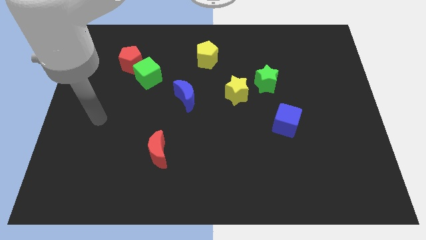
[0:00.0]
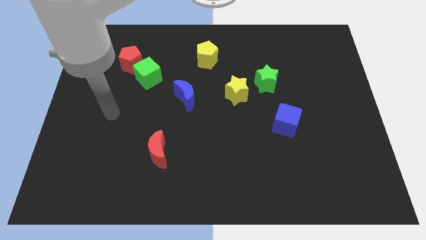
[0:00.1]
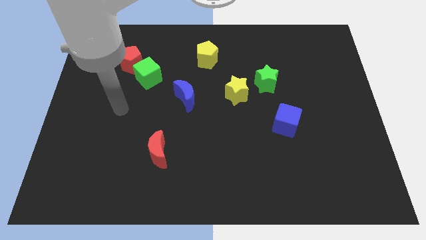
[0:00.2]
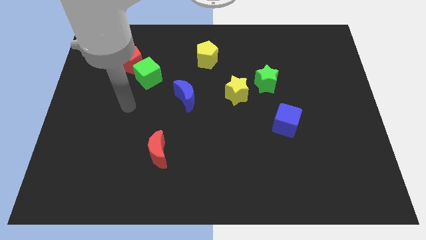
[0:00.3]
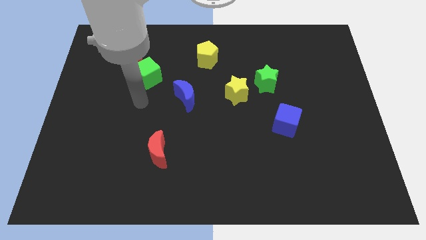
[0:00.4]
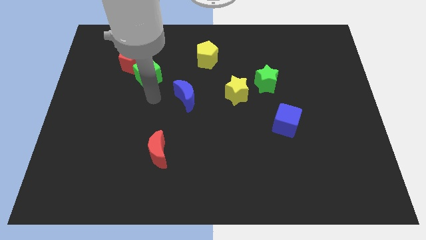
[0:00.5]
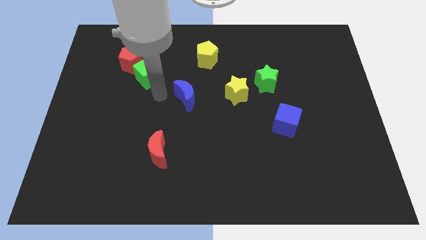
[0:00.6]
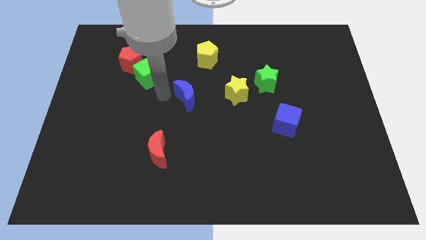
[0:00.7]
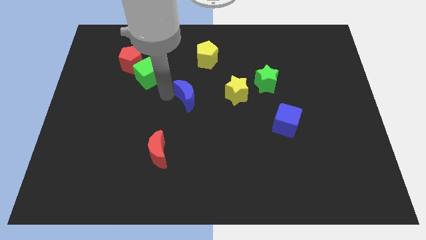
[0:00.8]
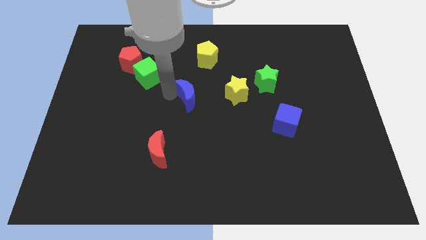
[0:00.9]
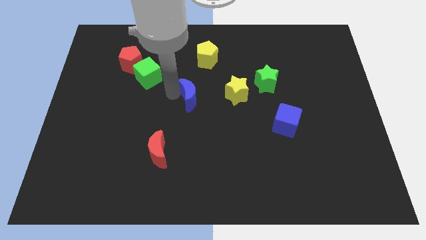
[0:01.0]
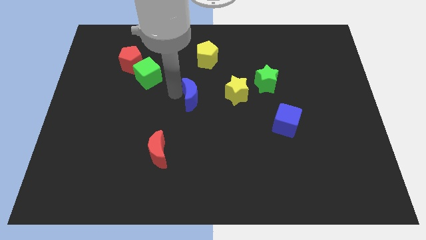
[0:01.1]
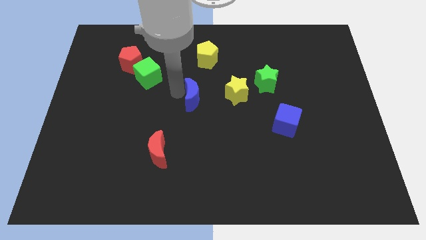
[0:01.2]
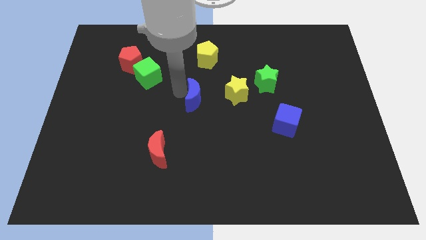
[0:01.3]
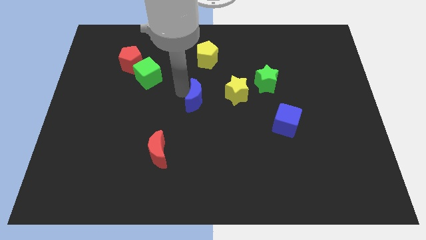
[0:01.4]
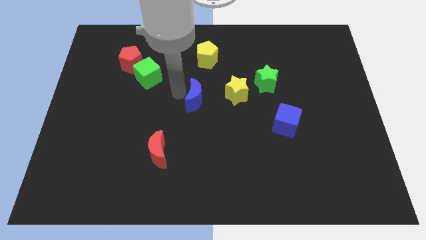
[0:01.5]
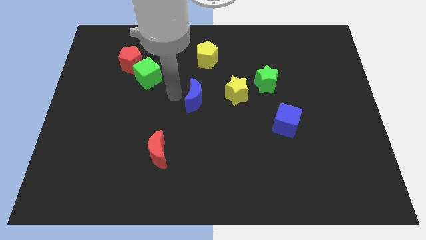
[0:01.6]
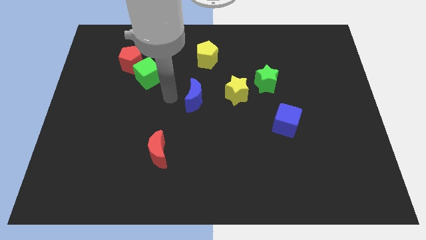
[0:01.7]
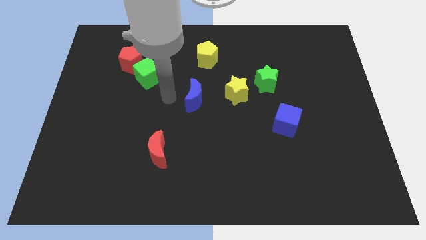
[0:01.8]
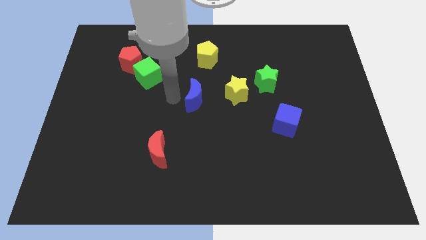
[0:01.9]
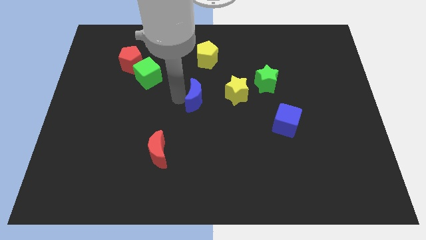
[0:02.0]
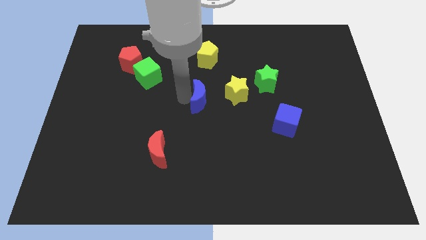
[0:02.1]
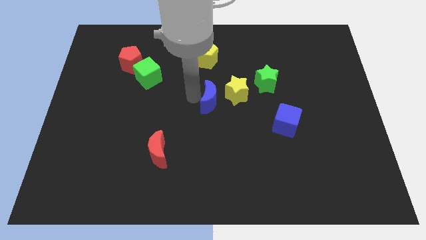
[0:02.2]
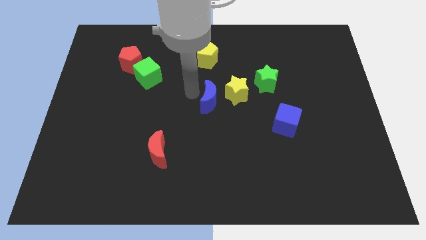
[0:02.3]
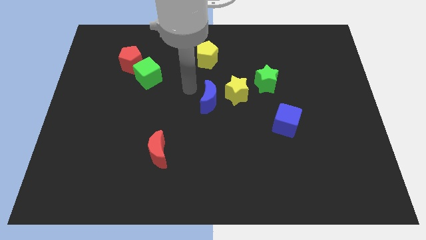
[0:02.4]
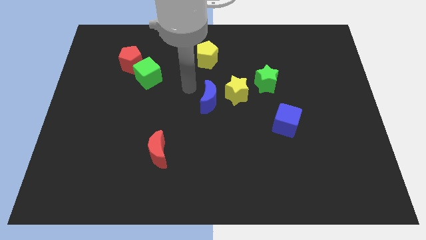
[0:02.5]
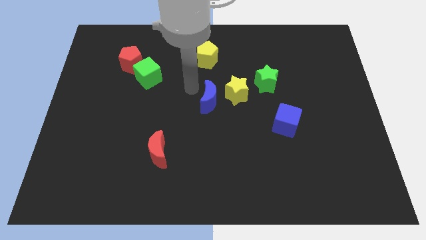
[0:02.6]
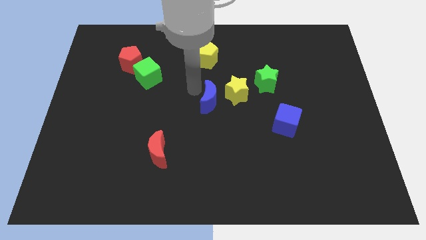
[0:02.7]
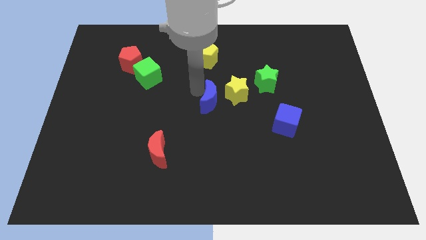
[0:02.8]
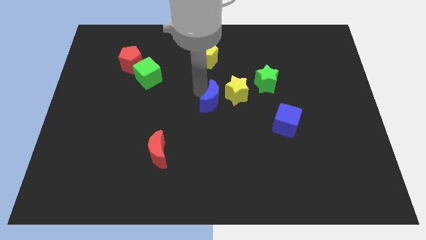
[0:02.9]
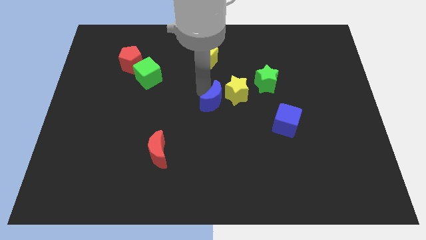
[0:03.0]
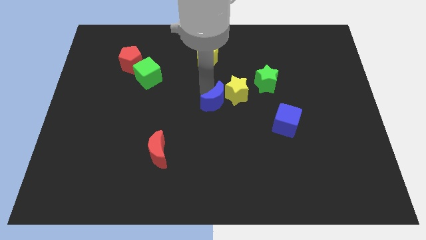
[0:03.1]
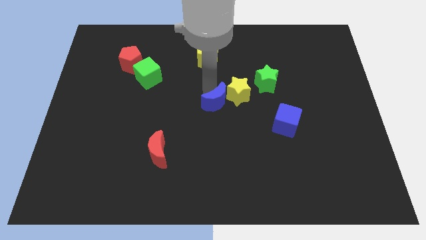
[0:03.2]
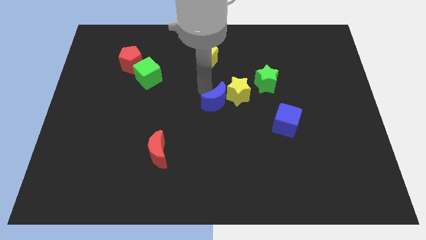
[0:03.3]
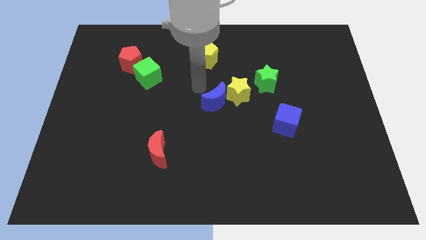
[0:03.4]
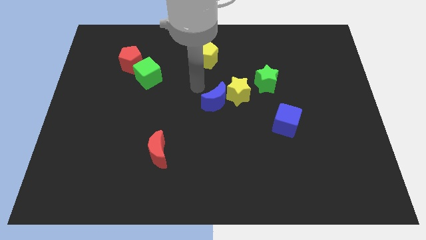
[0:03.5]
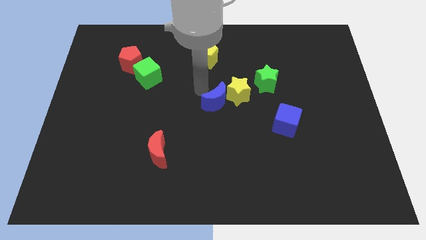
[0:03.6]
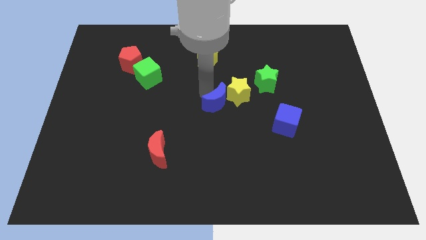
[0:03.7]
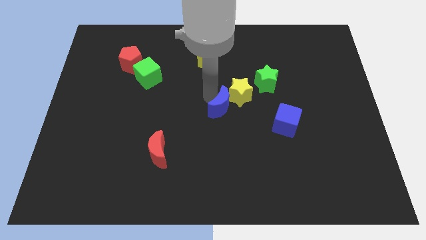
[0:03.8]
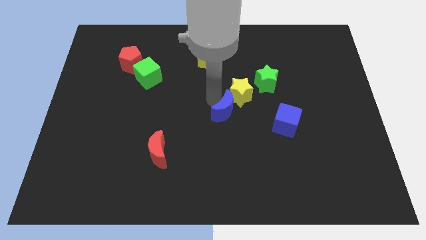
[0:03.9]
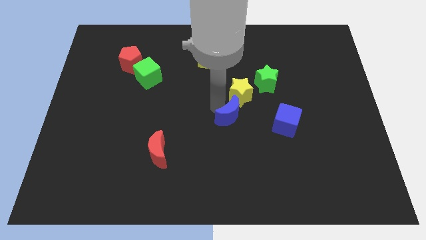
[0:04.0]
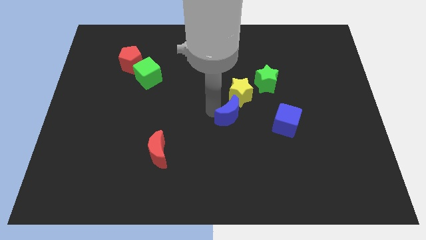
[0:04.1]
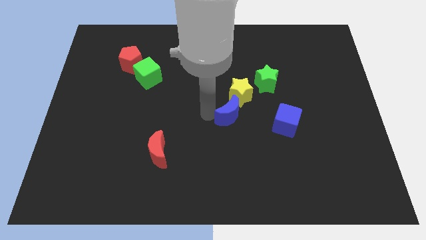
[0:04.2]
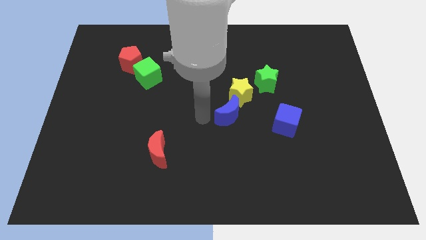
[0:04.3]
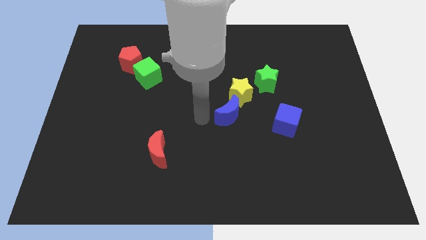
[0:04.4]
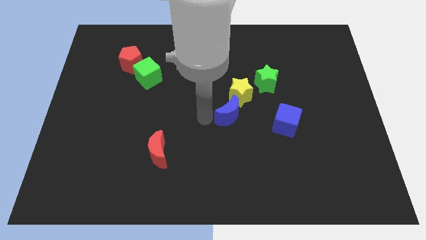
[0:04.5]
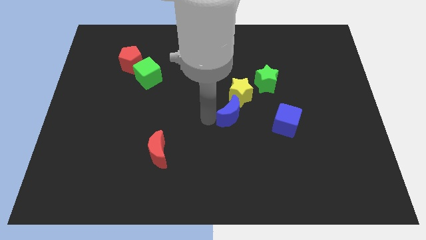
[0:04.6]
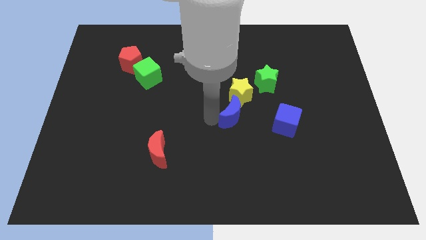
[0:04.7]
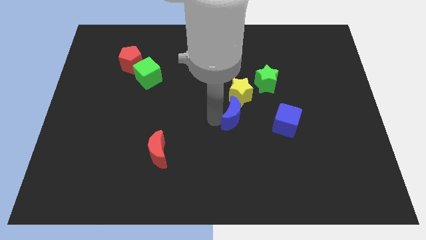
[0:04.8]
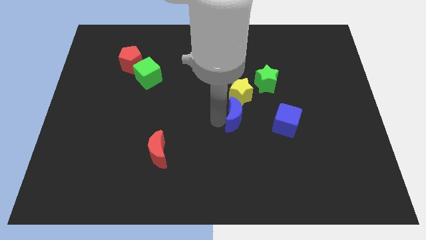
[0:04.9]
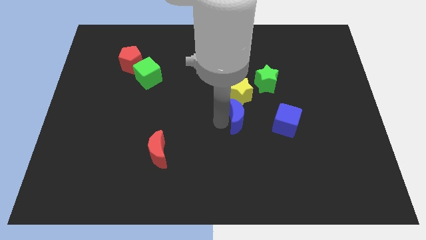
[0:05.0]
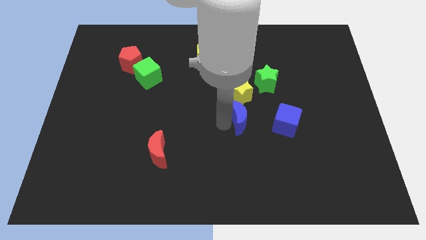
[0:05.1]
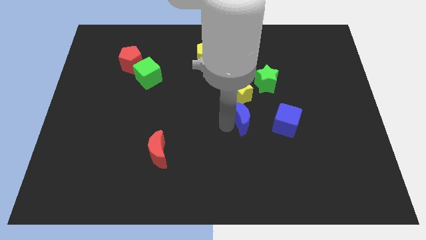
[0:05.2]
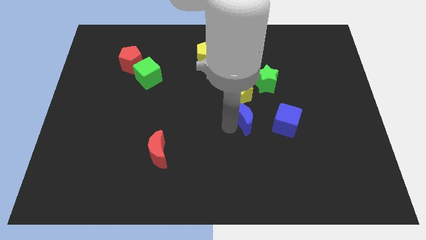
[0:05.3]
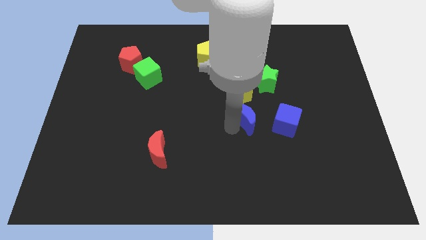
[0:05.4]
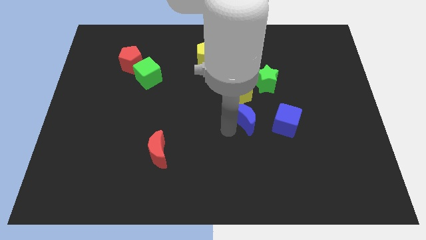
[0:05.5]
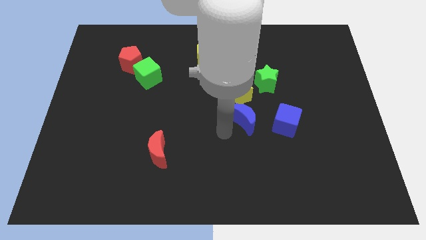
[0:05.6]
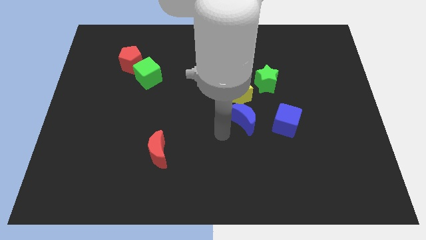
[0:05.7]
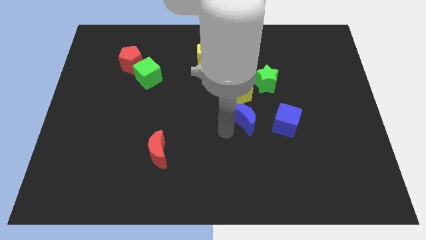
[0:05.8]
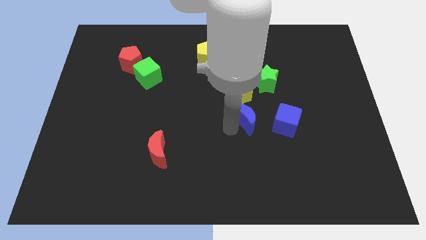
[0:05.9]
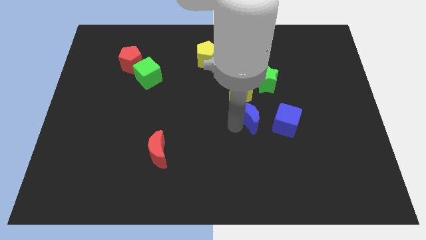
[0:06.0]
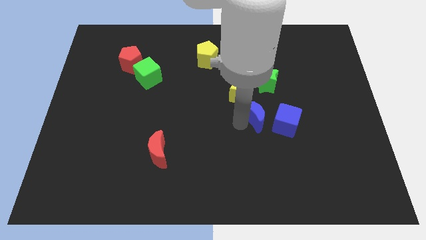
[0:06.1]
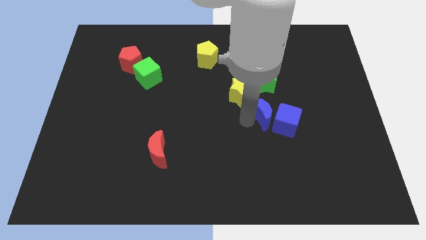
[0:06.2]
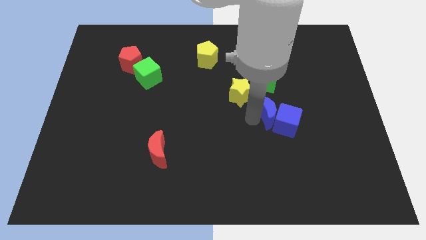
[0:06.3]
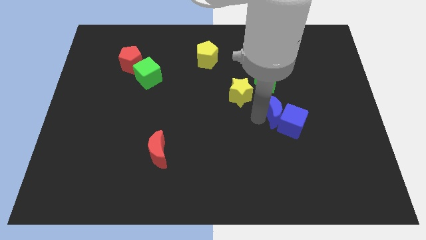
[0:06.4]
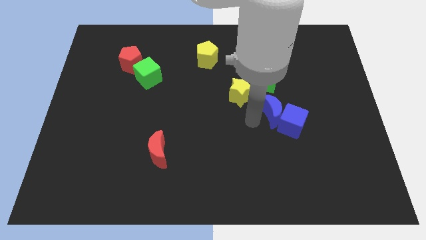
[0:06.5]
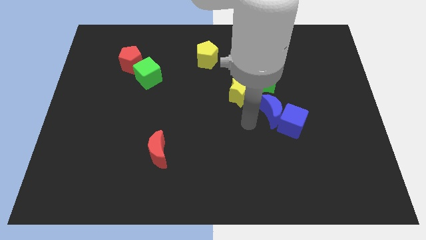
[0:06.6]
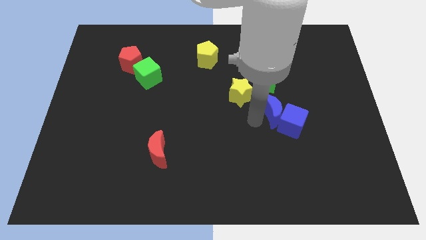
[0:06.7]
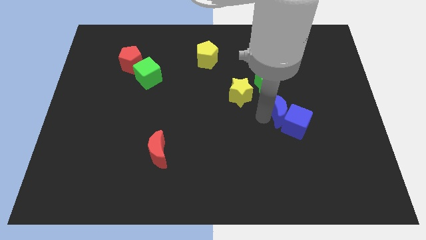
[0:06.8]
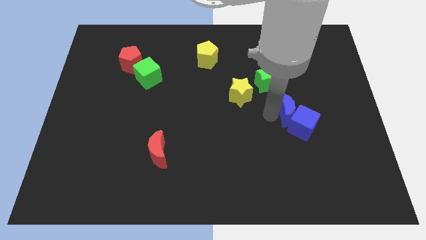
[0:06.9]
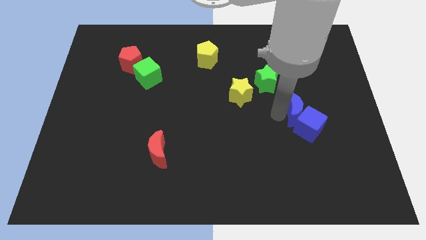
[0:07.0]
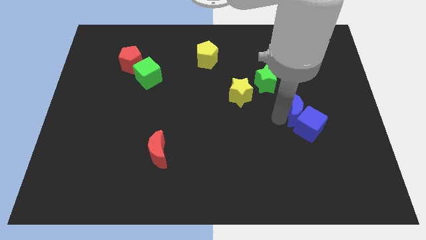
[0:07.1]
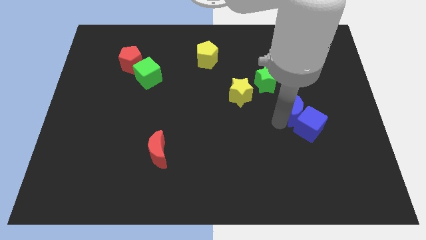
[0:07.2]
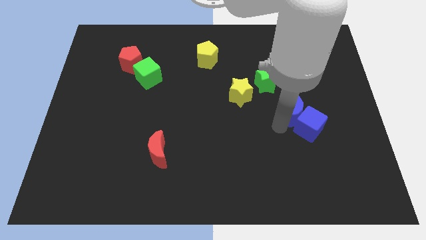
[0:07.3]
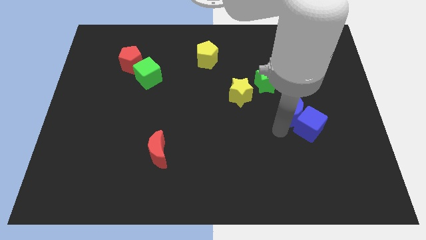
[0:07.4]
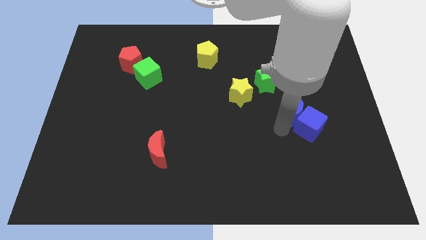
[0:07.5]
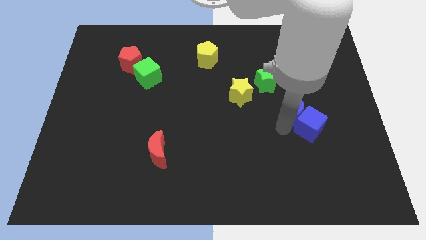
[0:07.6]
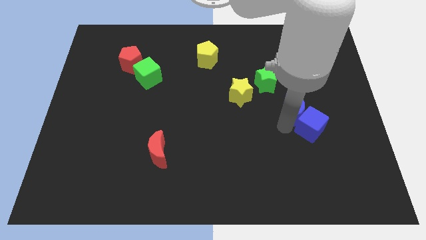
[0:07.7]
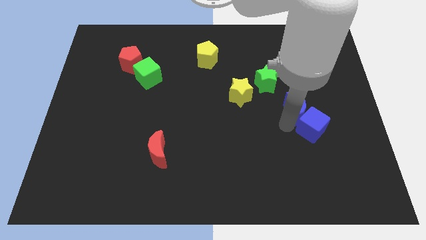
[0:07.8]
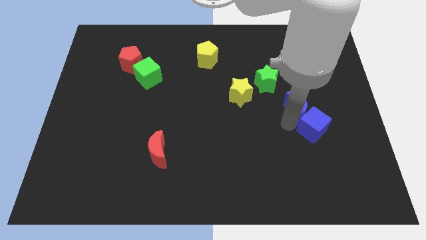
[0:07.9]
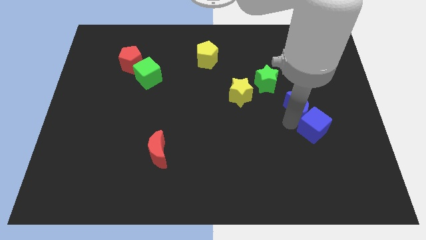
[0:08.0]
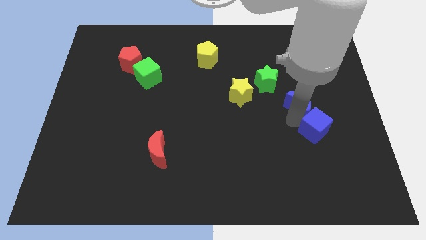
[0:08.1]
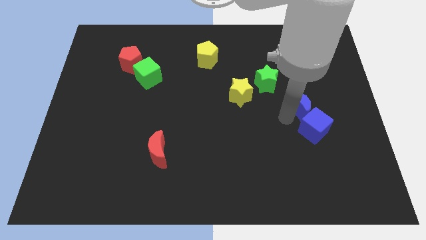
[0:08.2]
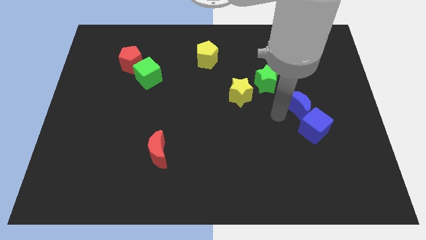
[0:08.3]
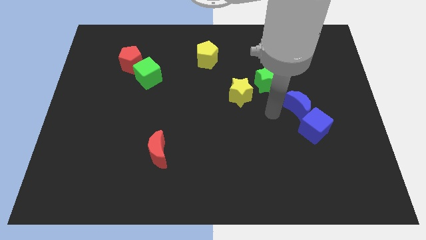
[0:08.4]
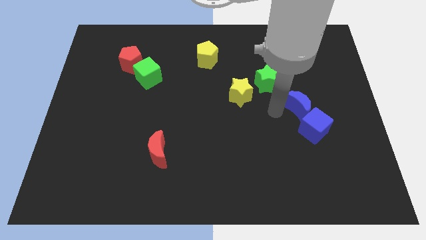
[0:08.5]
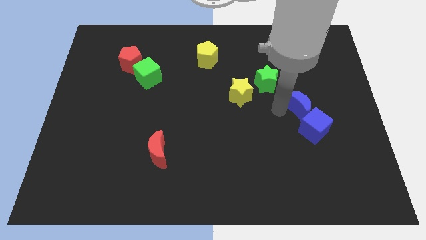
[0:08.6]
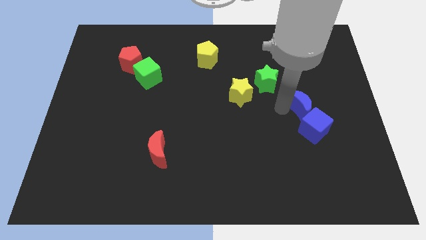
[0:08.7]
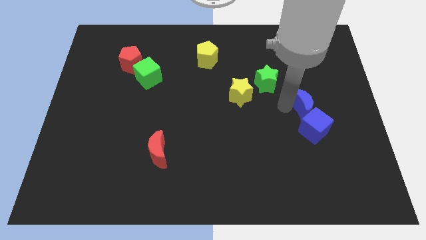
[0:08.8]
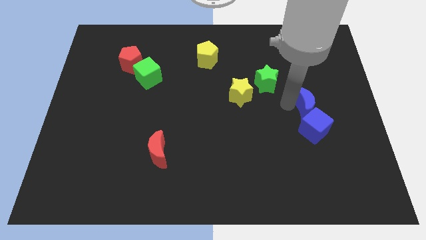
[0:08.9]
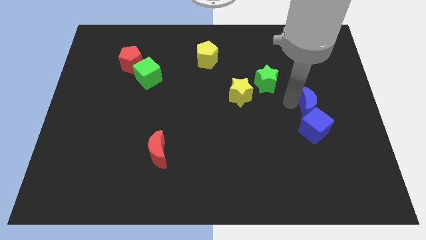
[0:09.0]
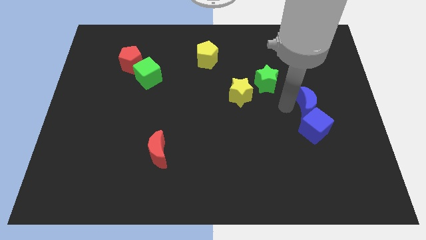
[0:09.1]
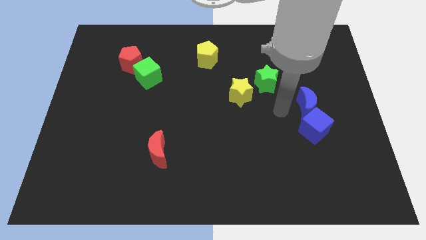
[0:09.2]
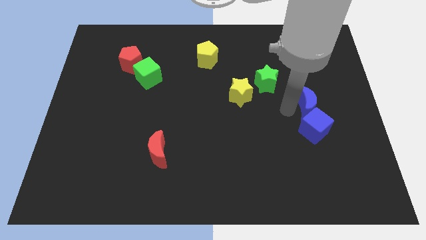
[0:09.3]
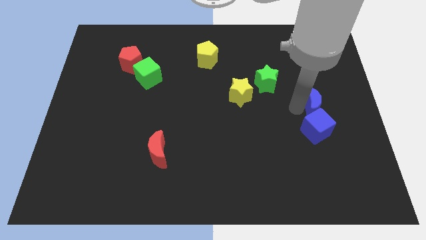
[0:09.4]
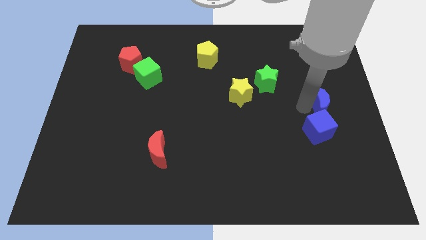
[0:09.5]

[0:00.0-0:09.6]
push the blue moon to the center right
